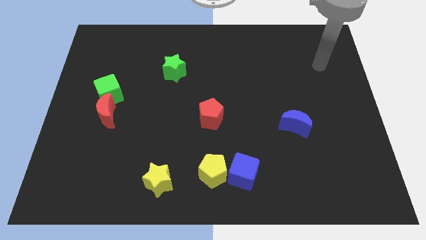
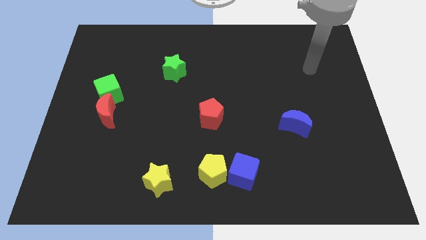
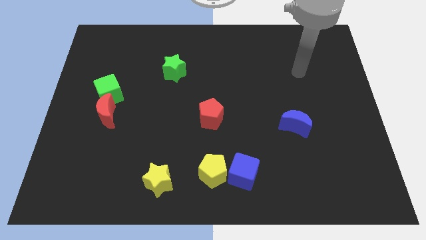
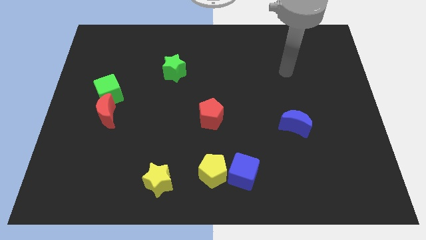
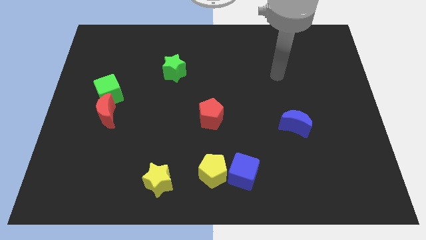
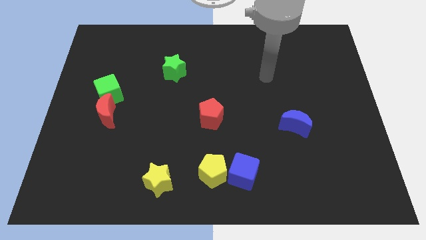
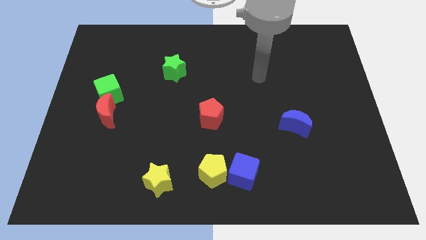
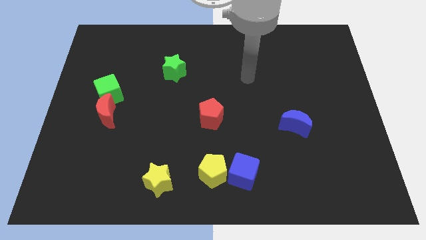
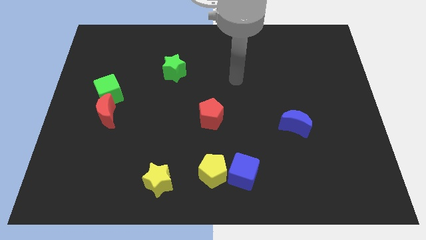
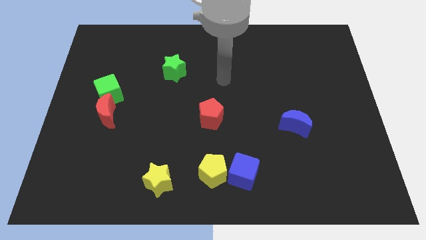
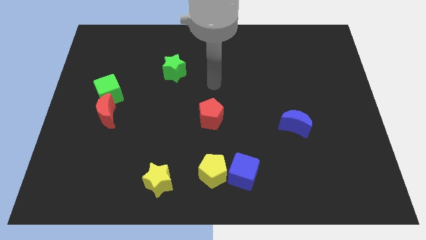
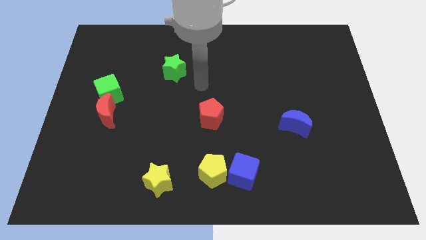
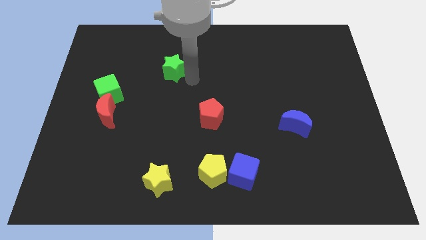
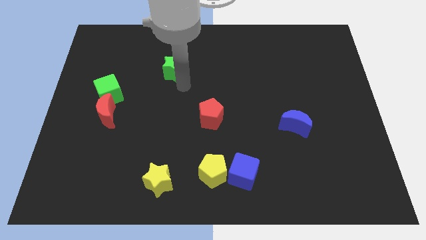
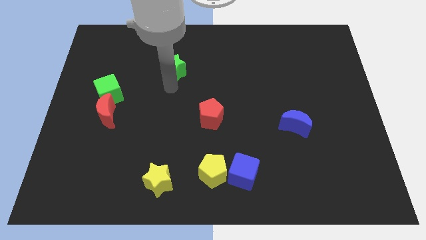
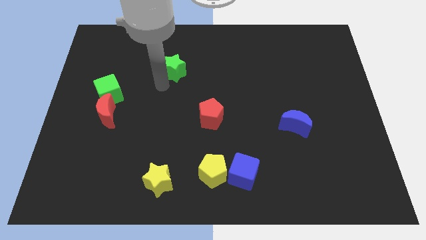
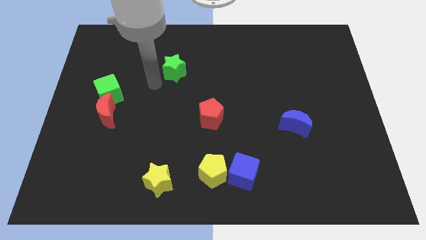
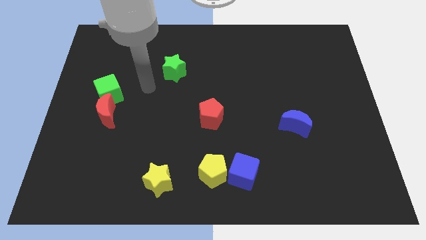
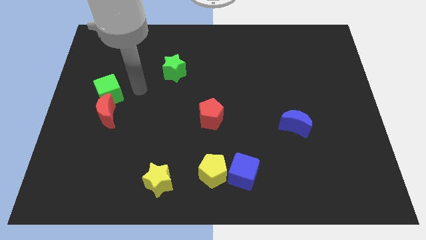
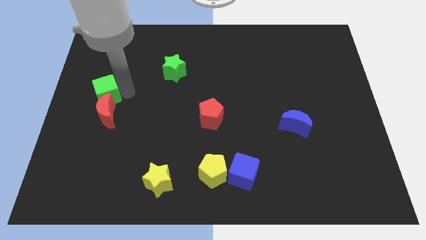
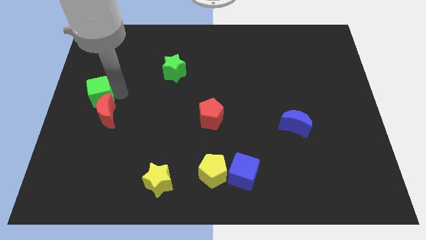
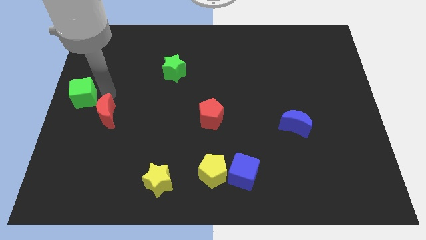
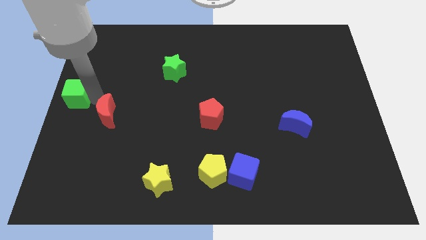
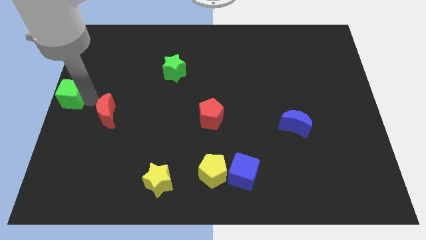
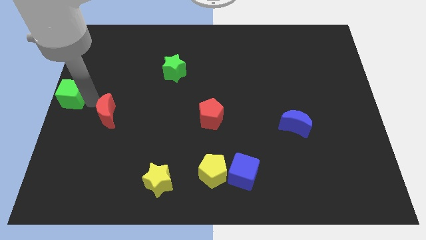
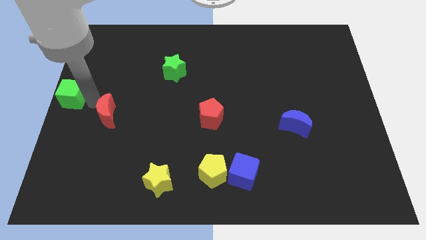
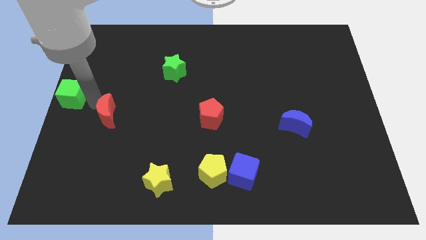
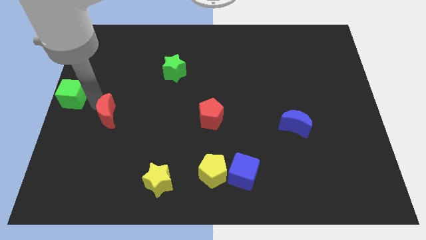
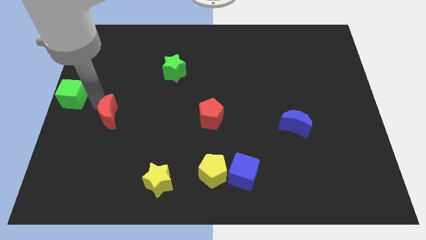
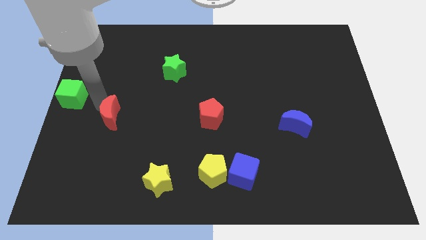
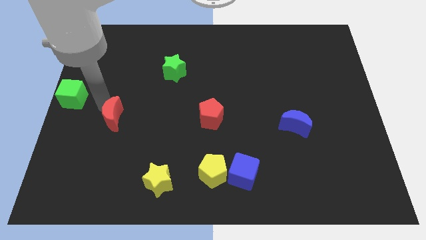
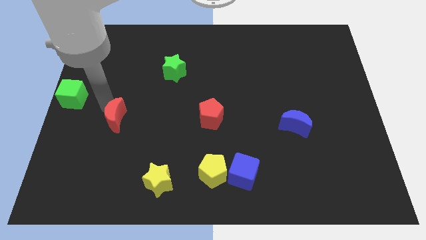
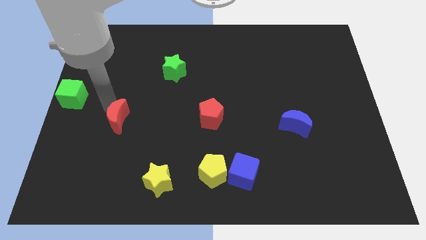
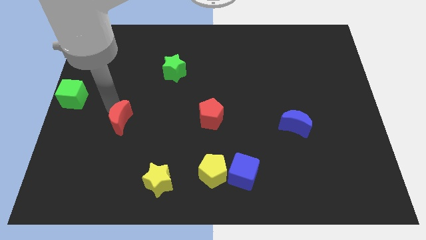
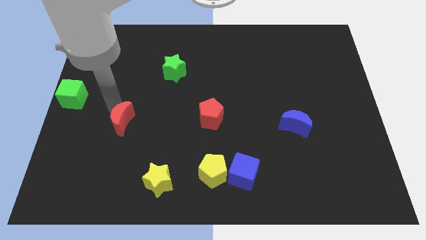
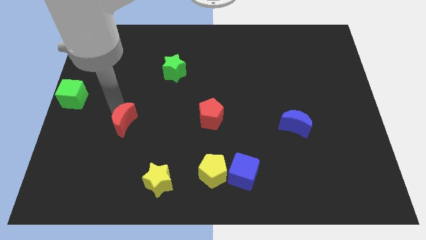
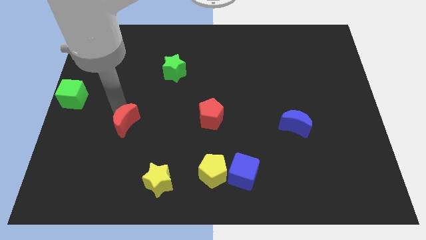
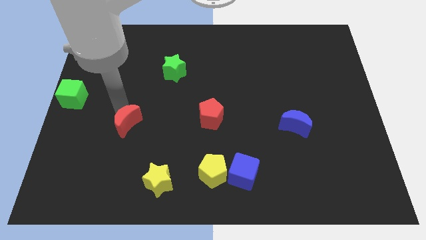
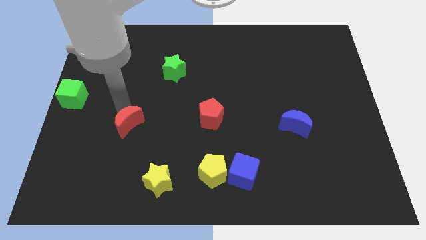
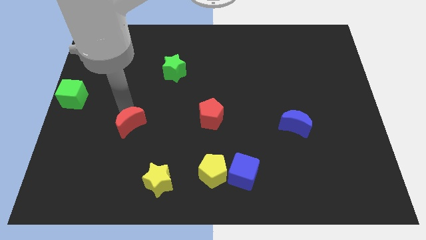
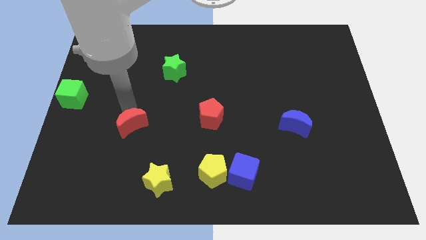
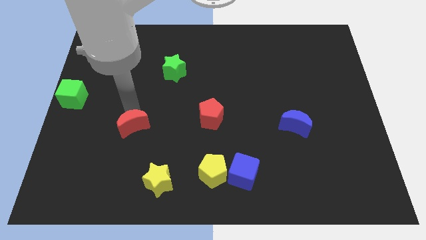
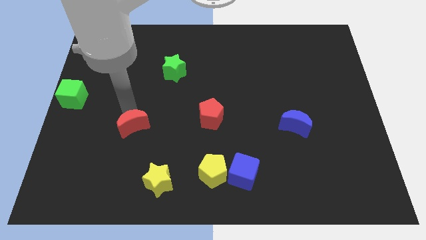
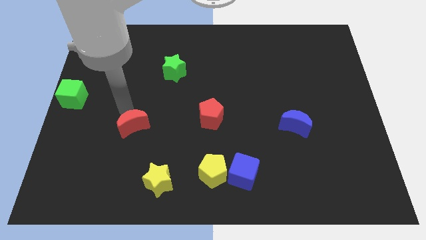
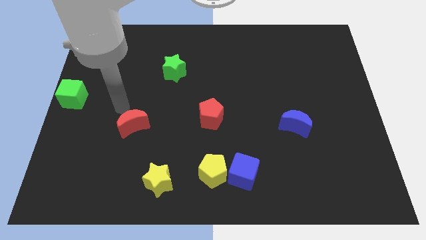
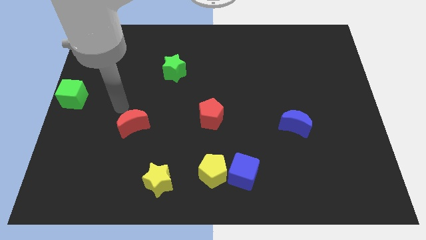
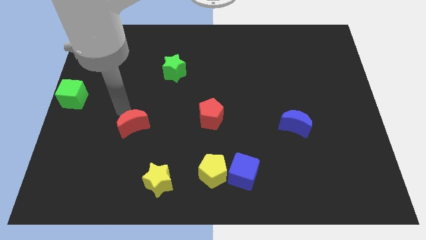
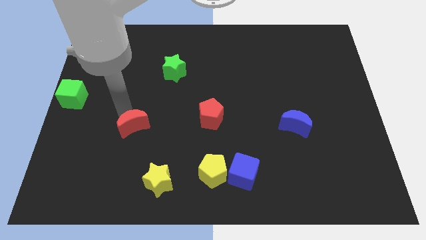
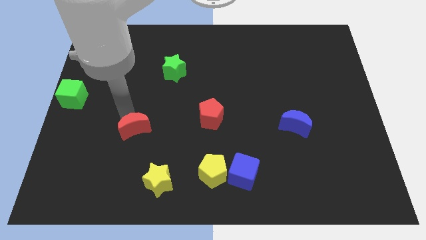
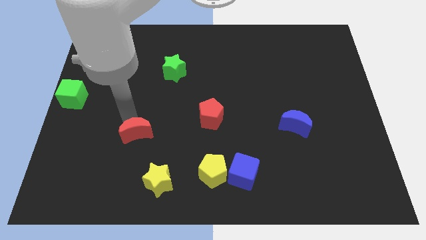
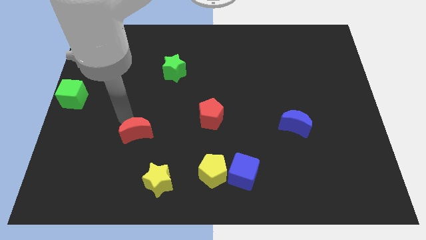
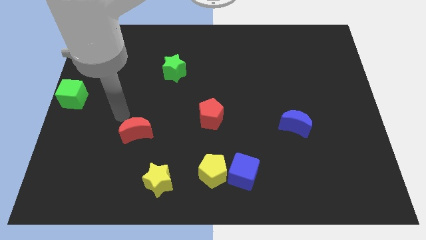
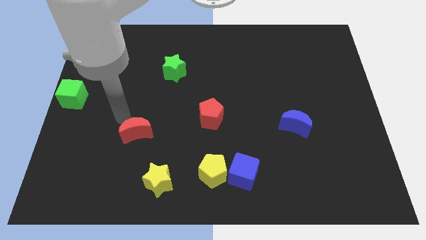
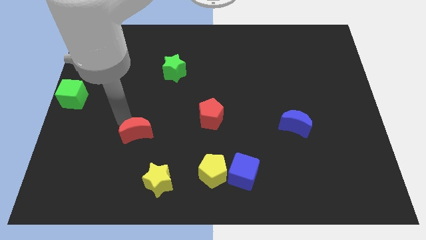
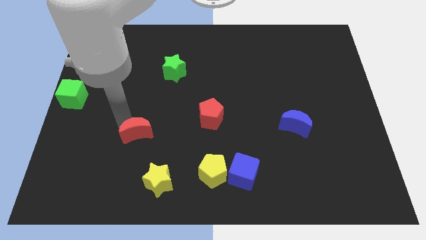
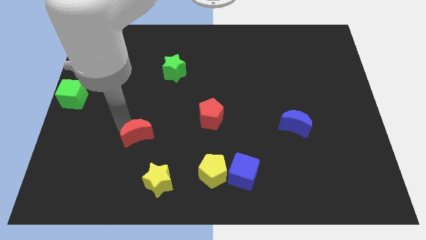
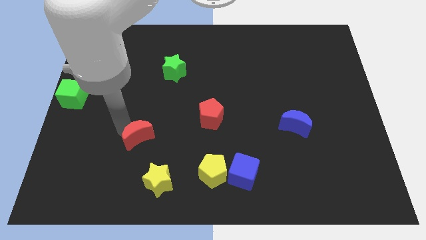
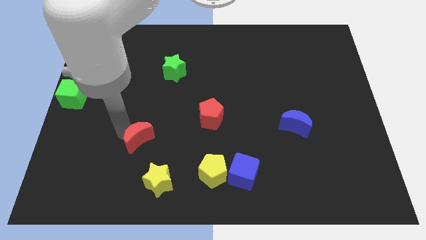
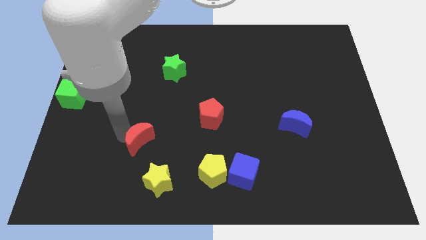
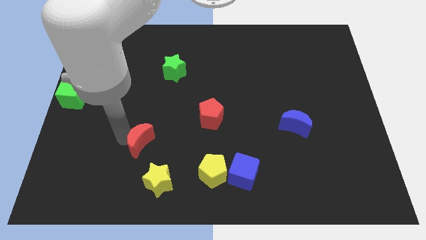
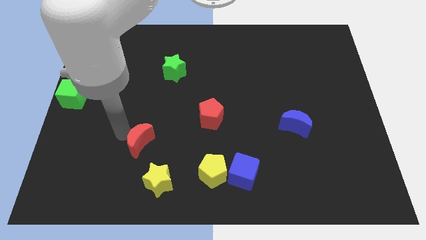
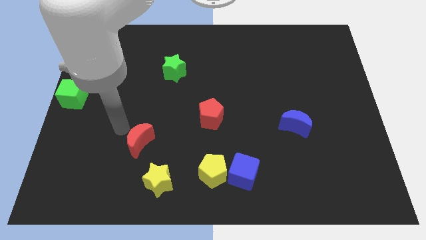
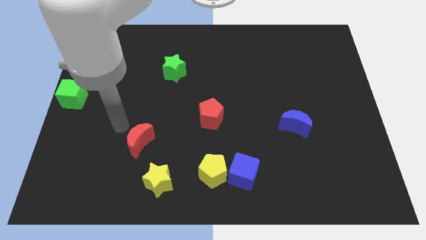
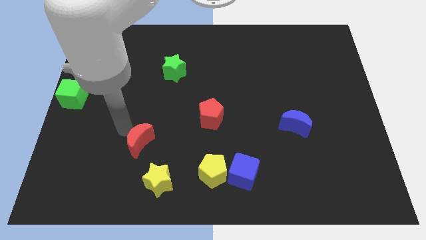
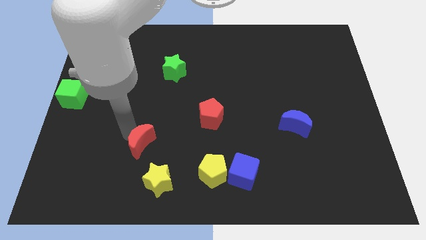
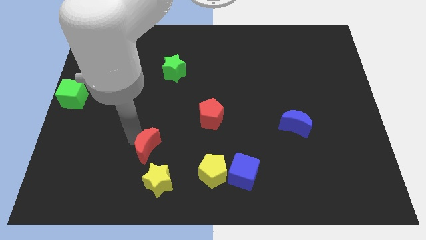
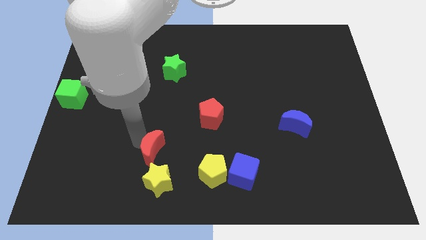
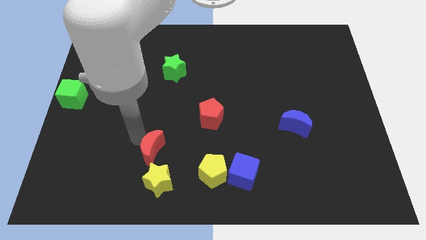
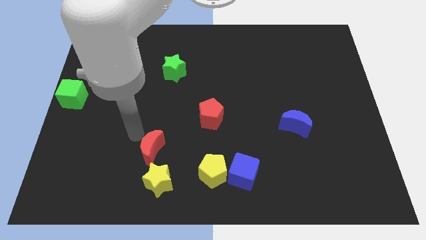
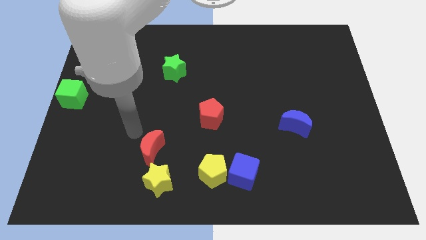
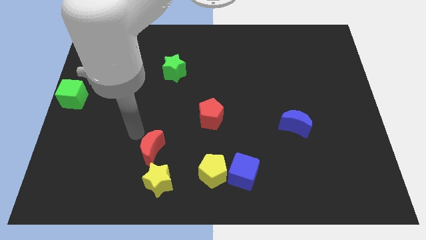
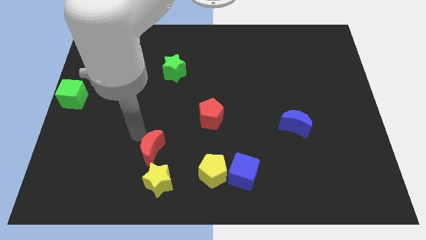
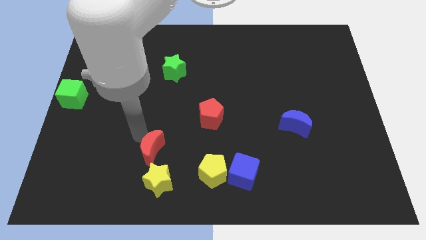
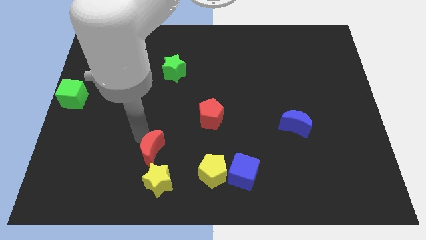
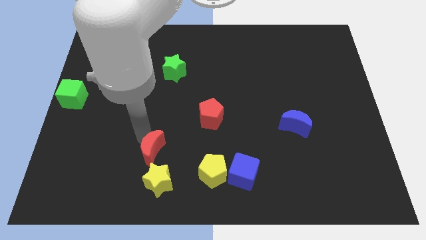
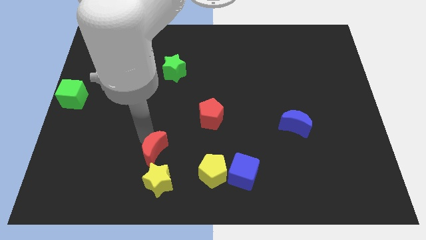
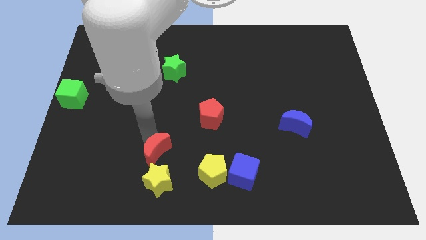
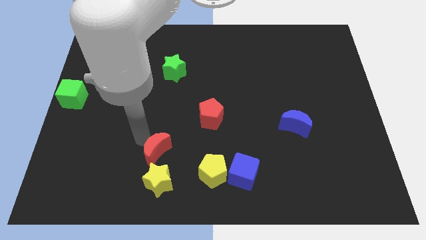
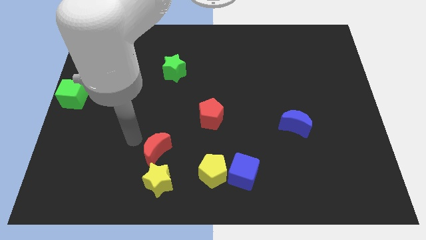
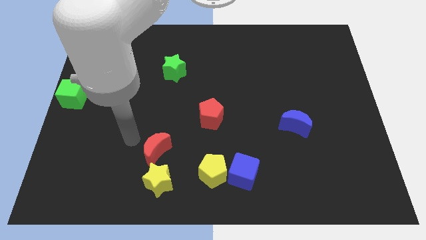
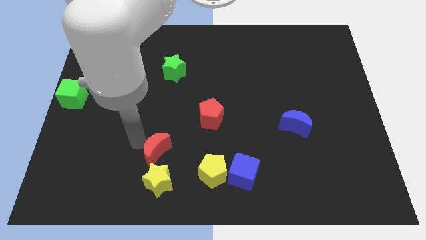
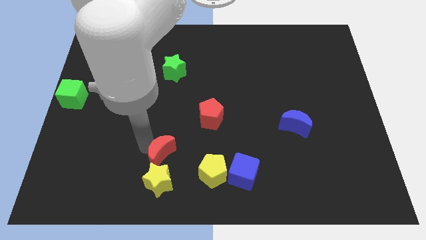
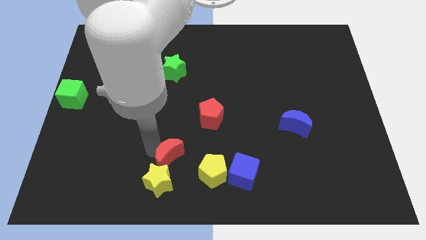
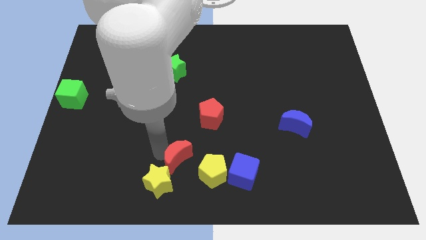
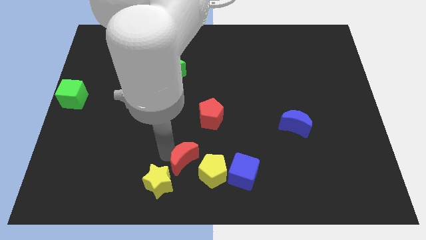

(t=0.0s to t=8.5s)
put the red moon to the bottom side
